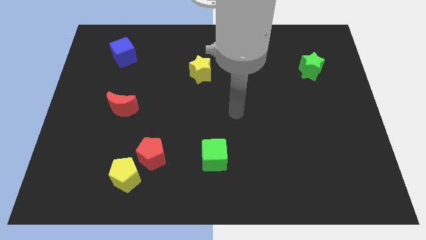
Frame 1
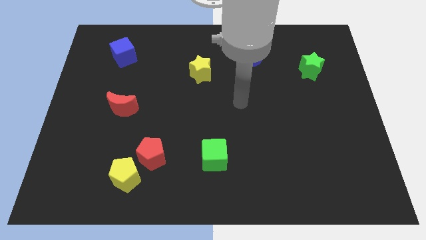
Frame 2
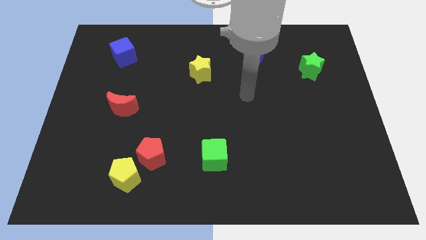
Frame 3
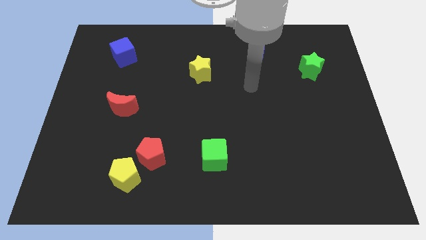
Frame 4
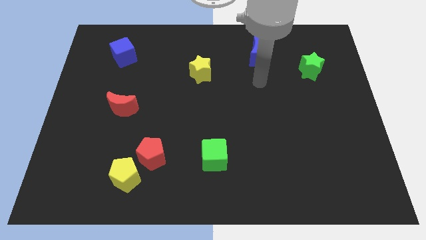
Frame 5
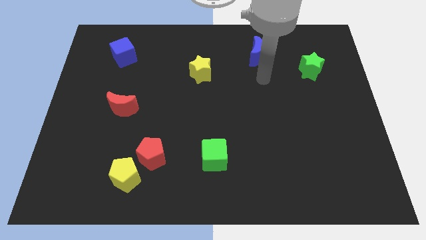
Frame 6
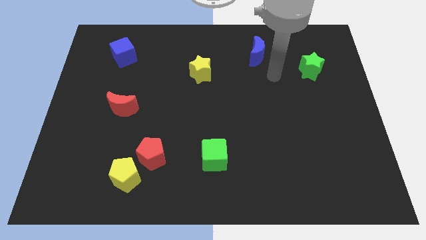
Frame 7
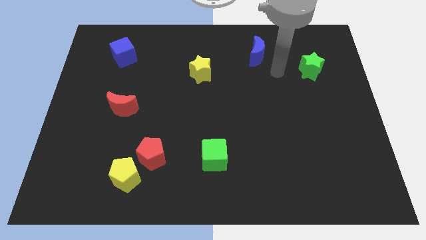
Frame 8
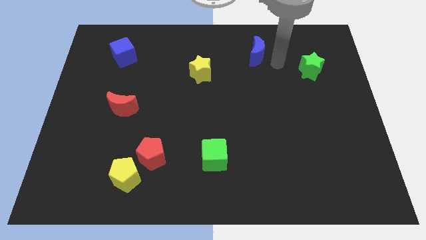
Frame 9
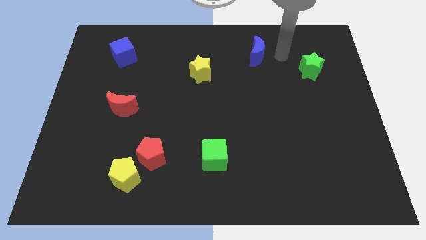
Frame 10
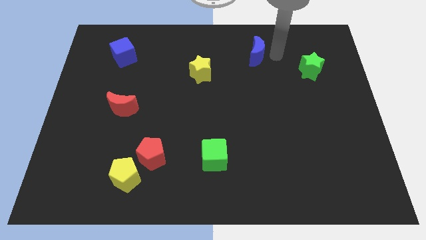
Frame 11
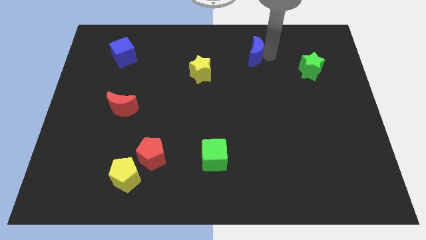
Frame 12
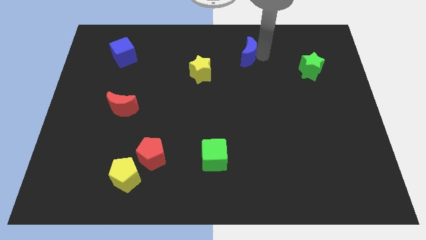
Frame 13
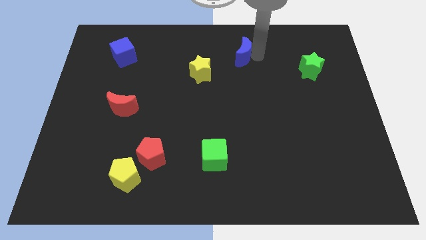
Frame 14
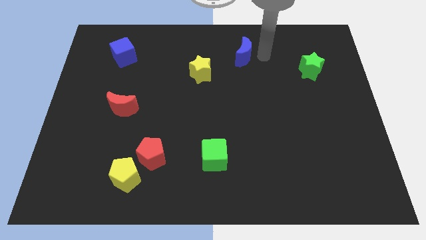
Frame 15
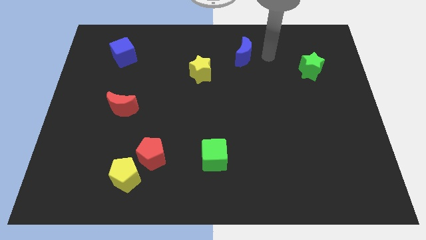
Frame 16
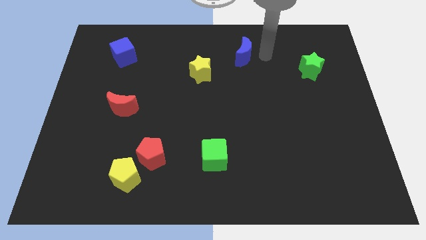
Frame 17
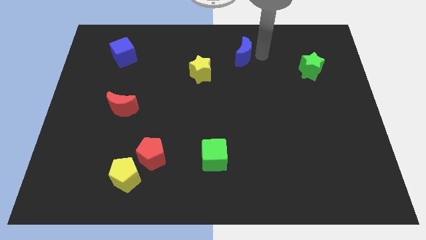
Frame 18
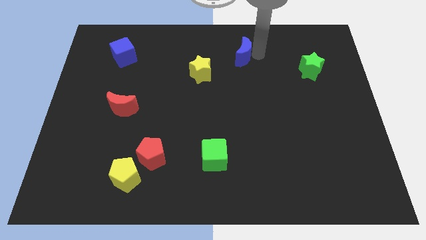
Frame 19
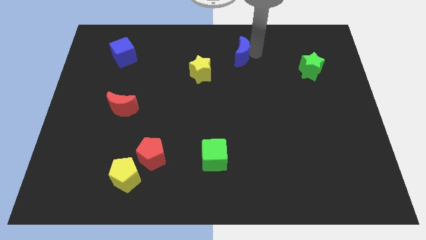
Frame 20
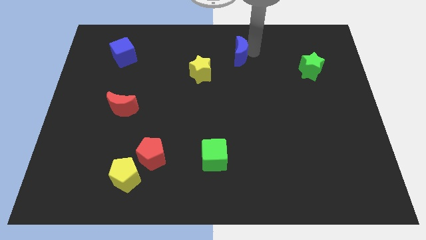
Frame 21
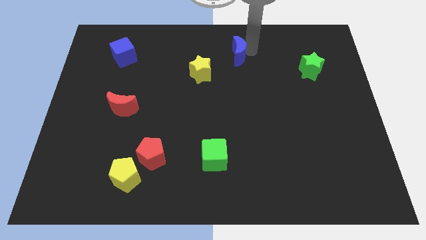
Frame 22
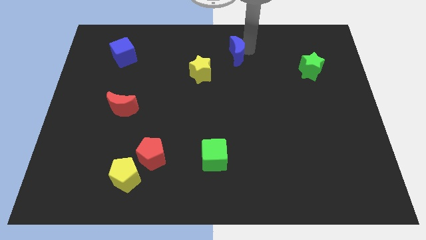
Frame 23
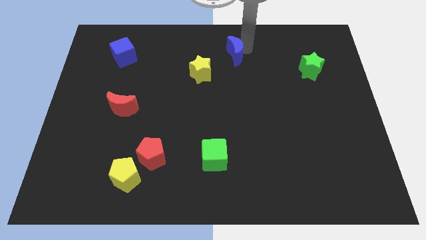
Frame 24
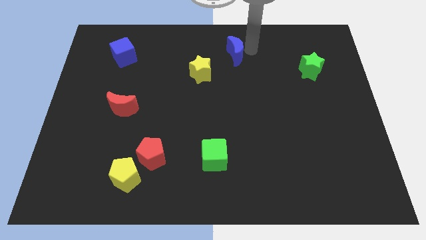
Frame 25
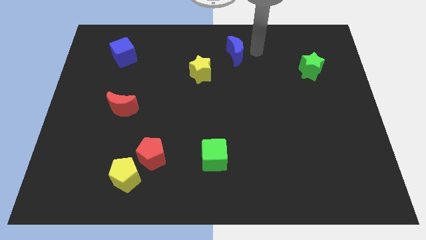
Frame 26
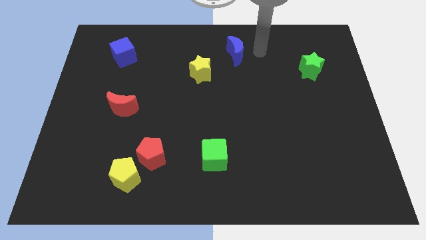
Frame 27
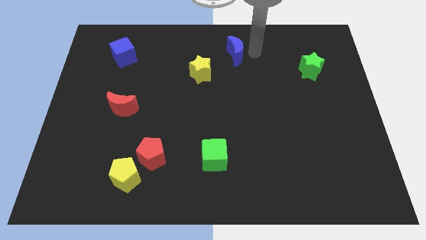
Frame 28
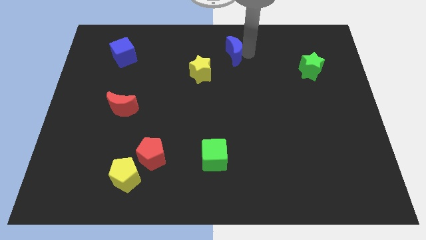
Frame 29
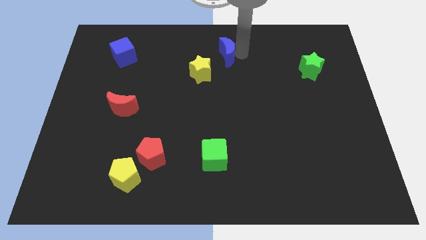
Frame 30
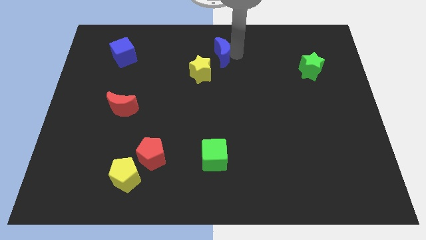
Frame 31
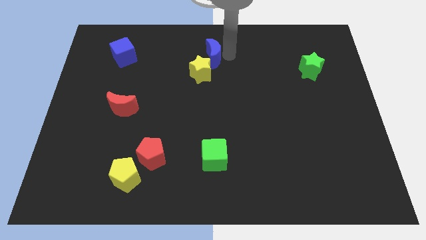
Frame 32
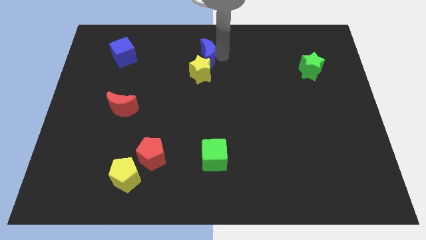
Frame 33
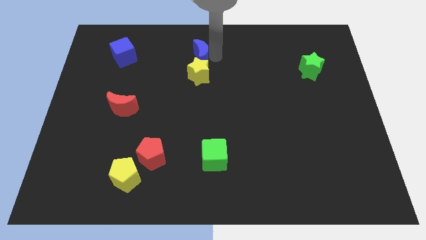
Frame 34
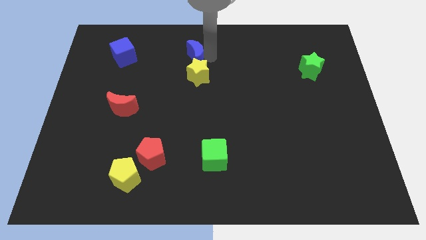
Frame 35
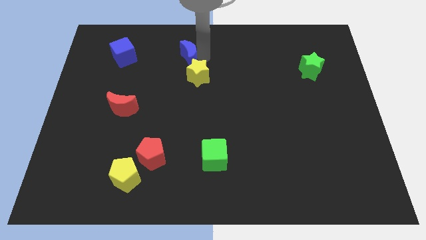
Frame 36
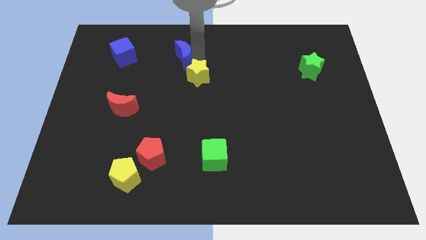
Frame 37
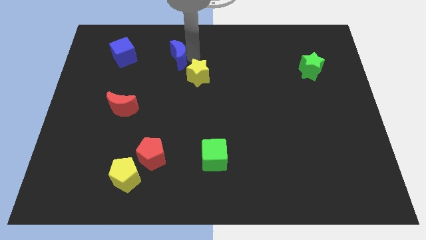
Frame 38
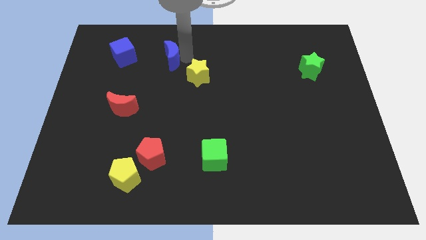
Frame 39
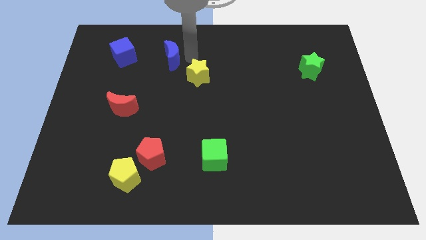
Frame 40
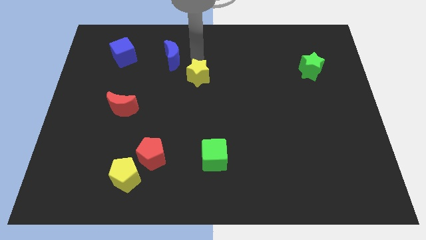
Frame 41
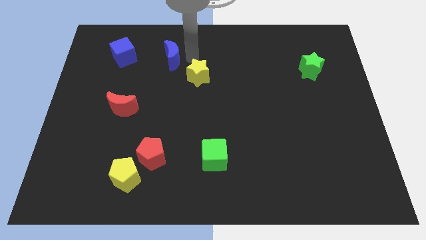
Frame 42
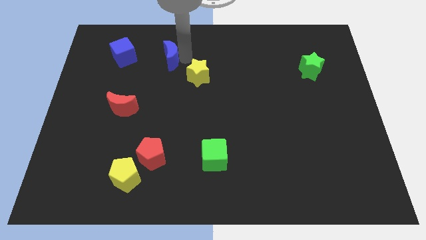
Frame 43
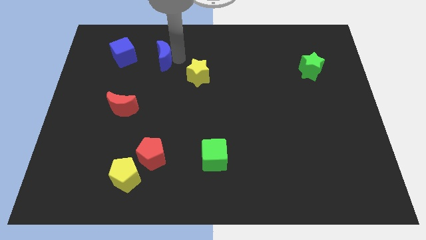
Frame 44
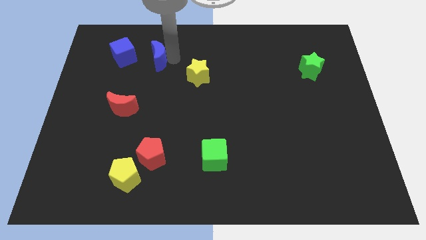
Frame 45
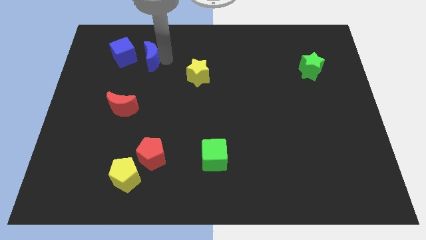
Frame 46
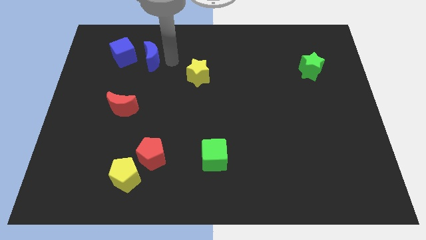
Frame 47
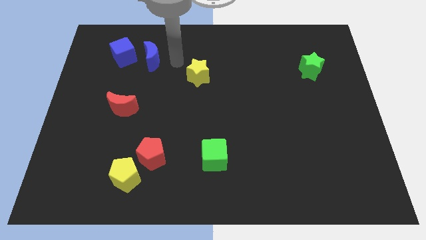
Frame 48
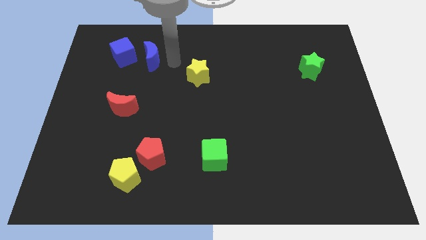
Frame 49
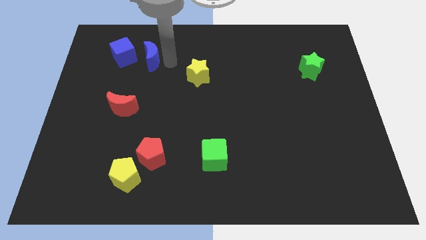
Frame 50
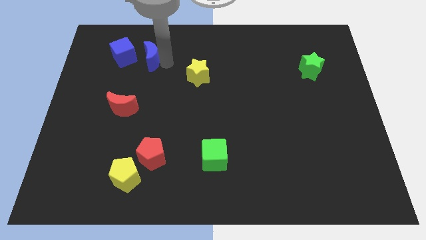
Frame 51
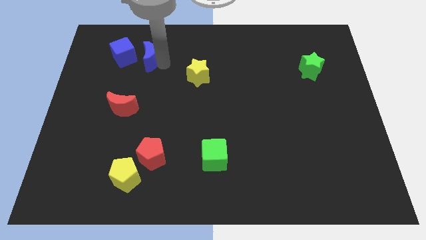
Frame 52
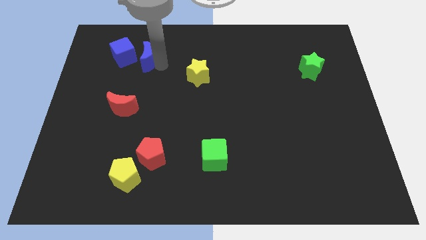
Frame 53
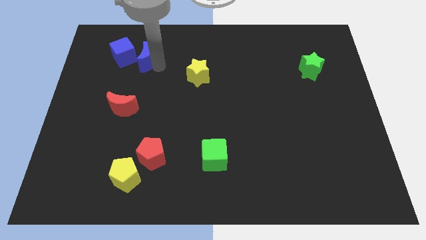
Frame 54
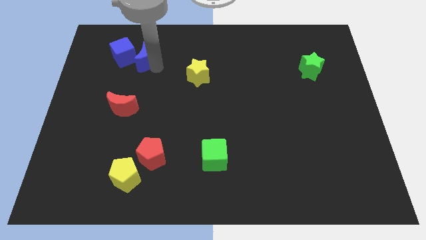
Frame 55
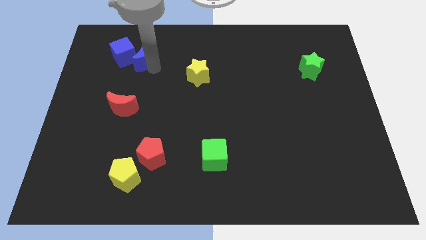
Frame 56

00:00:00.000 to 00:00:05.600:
push the blue moon towards the blue cube
